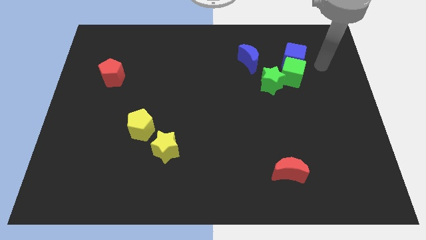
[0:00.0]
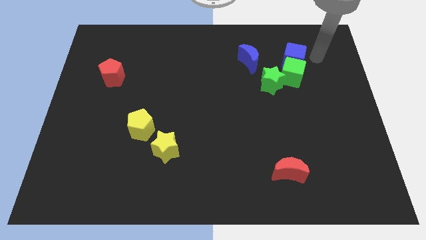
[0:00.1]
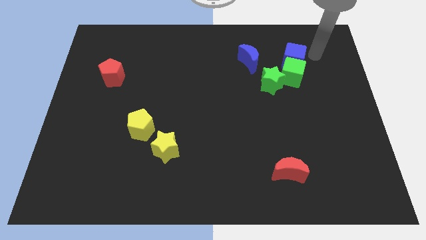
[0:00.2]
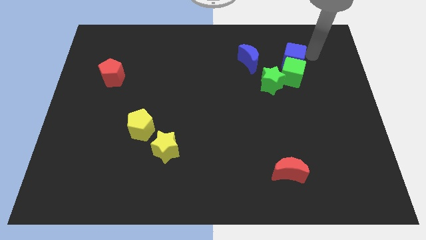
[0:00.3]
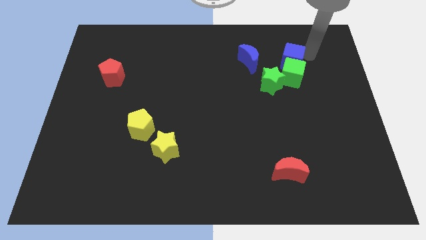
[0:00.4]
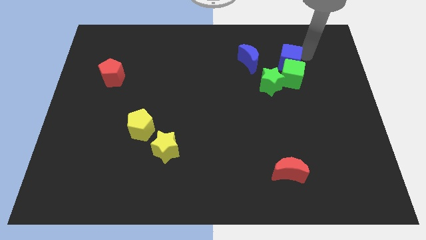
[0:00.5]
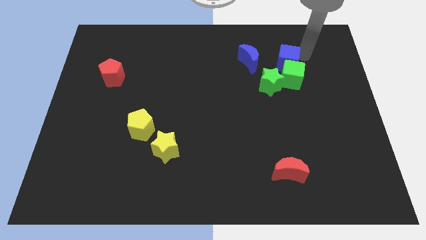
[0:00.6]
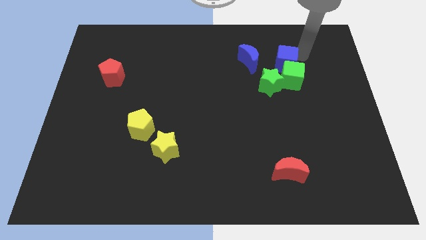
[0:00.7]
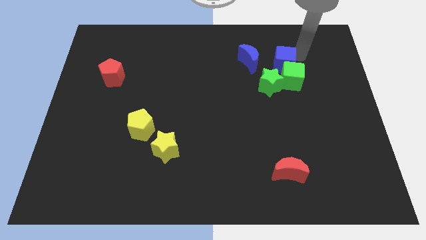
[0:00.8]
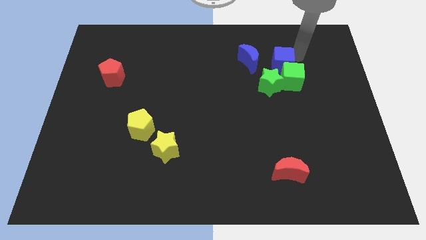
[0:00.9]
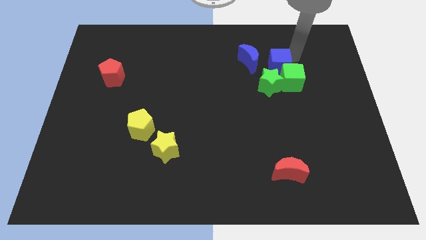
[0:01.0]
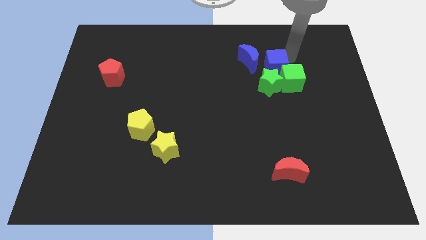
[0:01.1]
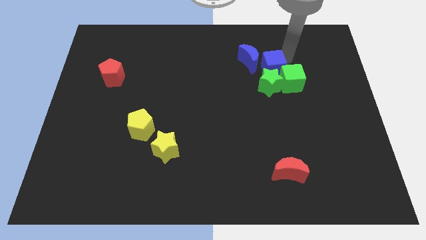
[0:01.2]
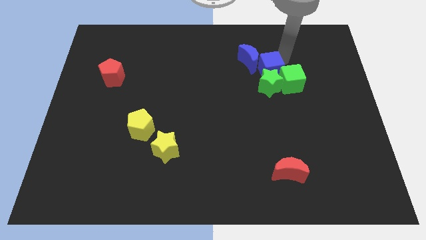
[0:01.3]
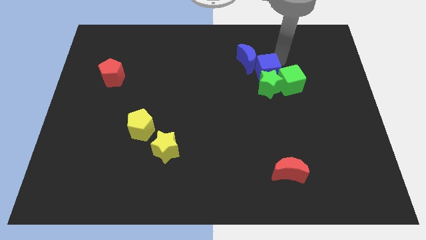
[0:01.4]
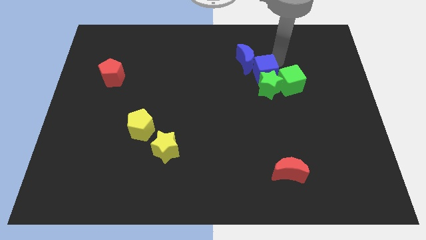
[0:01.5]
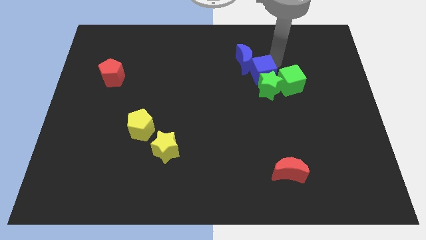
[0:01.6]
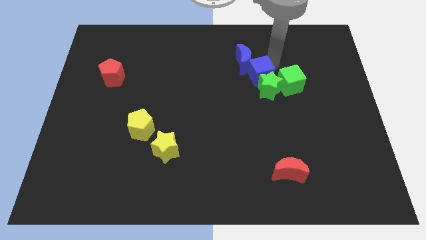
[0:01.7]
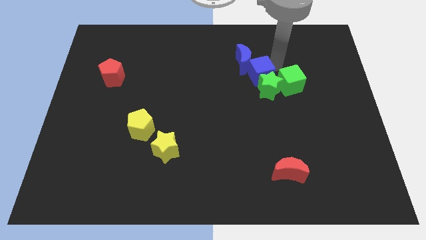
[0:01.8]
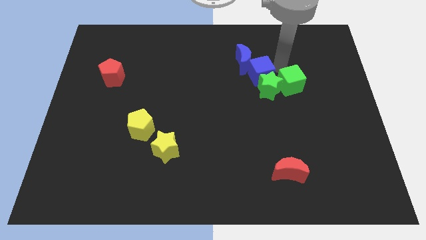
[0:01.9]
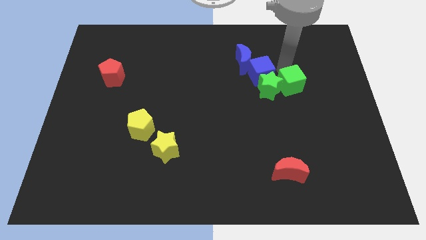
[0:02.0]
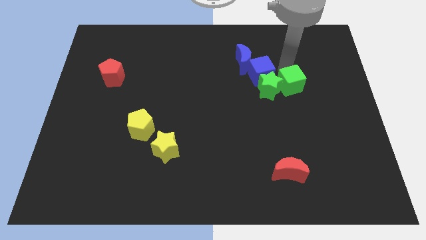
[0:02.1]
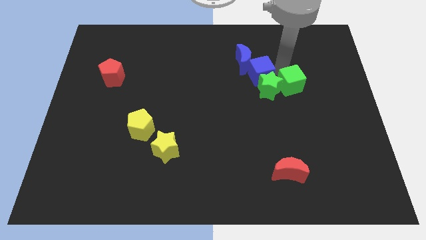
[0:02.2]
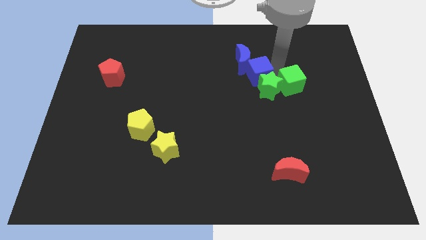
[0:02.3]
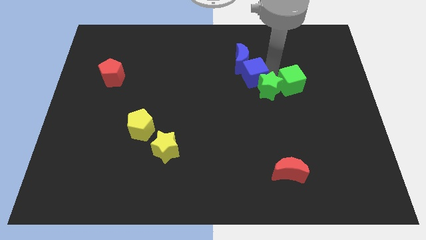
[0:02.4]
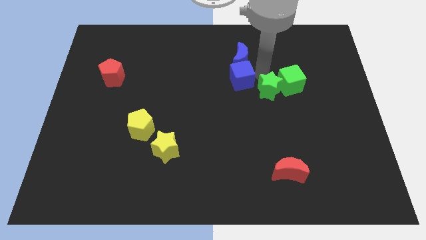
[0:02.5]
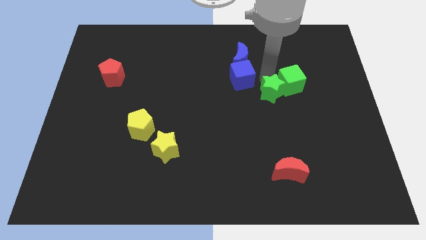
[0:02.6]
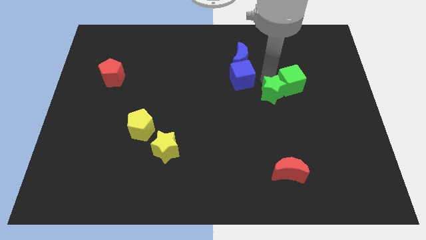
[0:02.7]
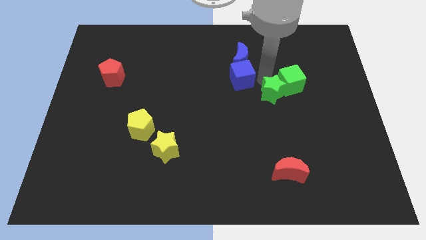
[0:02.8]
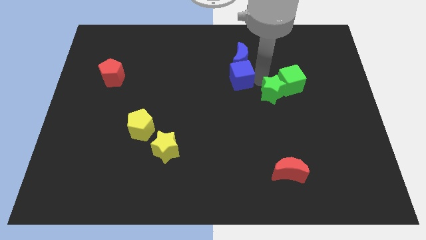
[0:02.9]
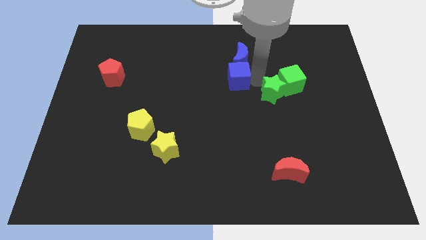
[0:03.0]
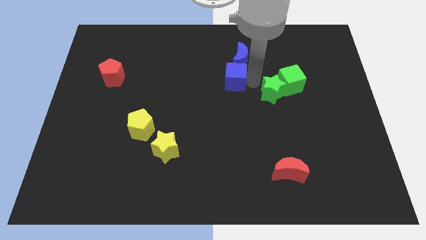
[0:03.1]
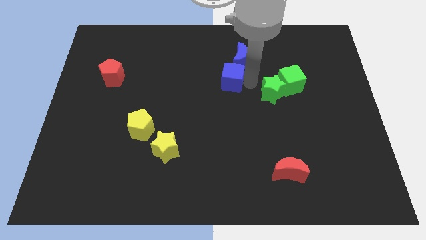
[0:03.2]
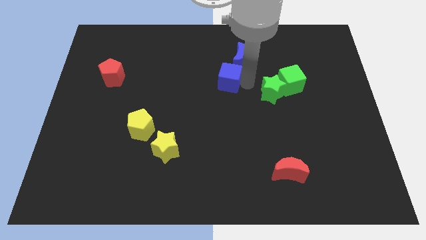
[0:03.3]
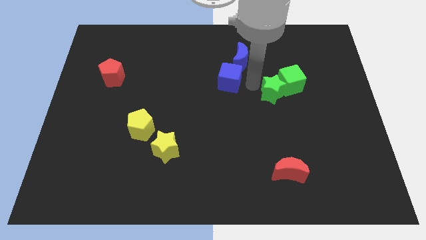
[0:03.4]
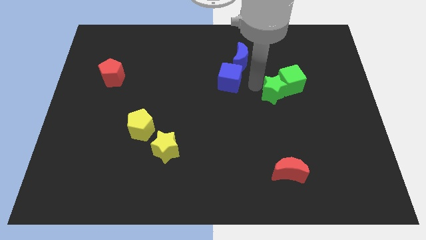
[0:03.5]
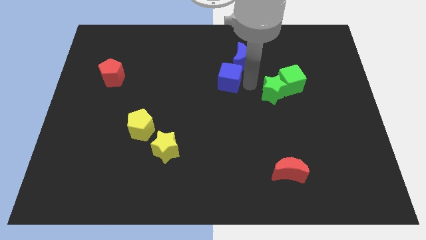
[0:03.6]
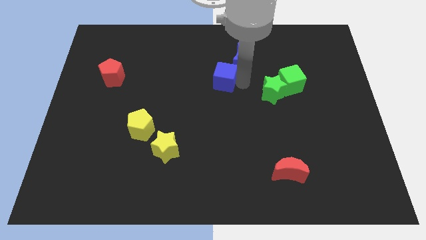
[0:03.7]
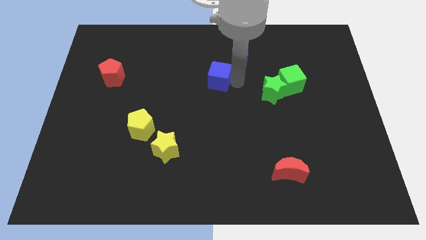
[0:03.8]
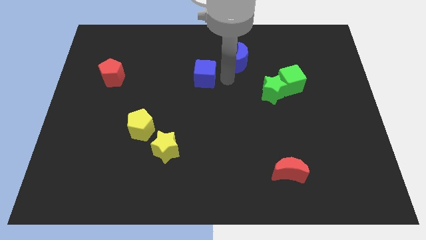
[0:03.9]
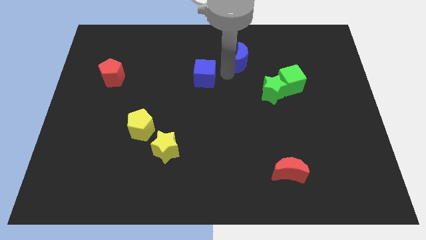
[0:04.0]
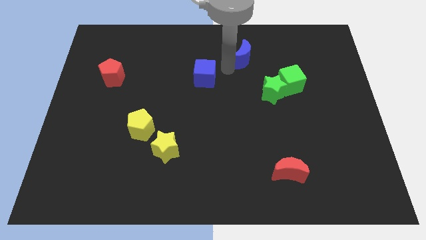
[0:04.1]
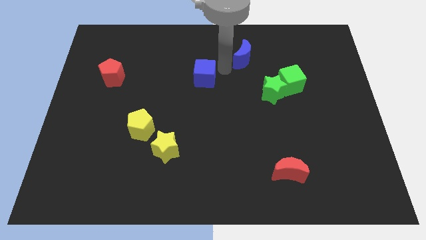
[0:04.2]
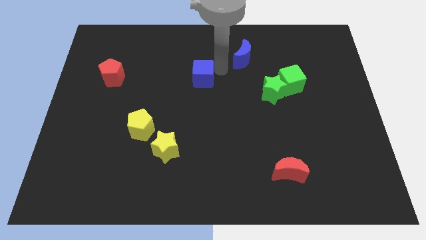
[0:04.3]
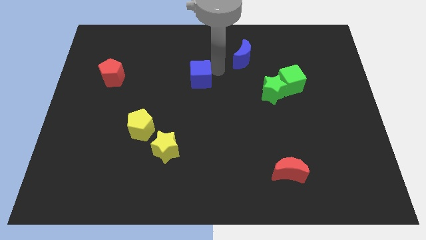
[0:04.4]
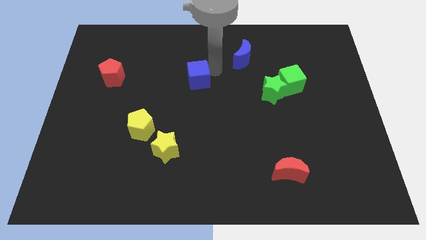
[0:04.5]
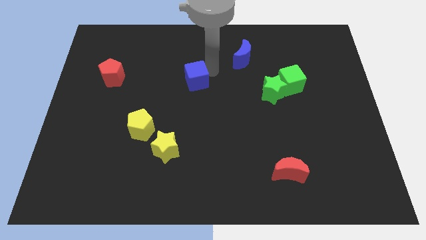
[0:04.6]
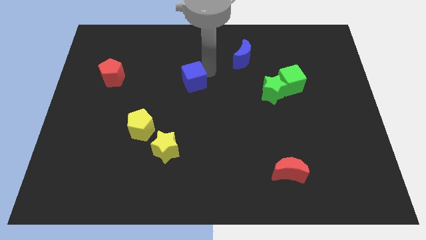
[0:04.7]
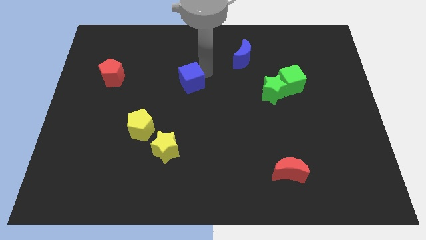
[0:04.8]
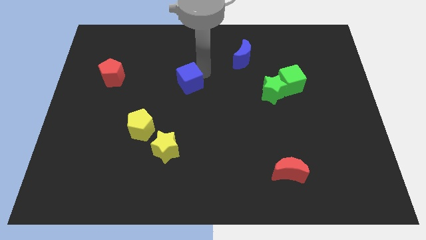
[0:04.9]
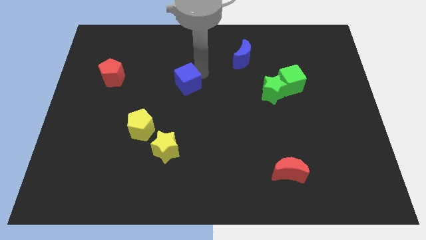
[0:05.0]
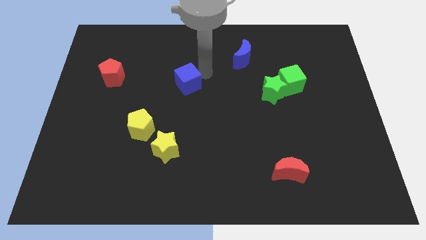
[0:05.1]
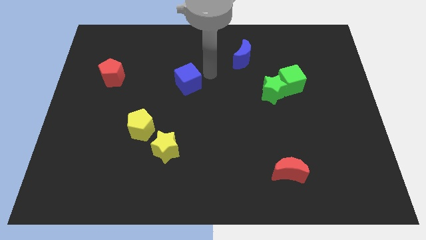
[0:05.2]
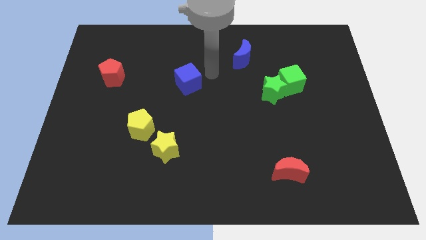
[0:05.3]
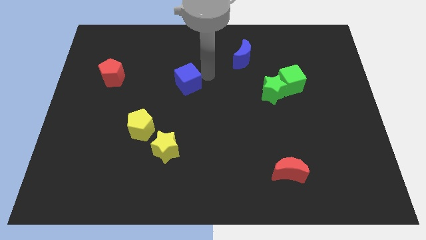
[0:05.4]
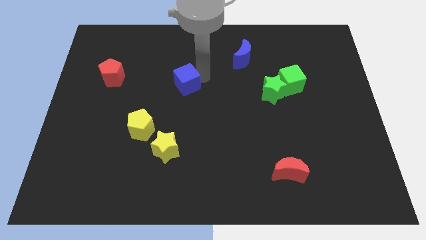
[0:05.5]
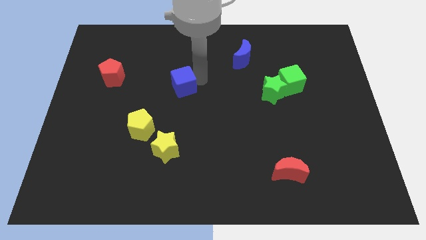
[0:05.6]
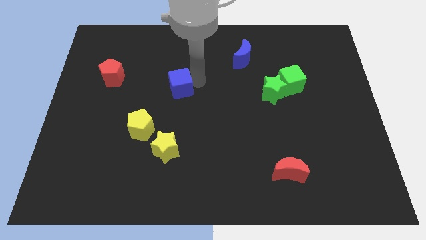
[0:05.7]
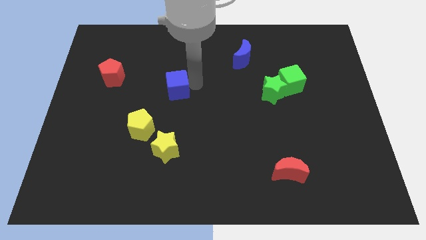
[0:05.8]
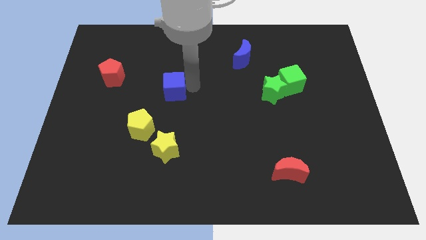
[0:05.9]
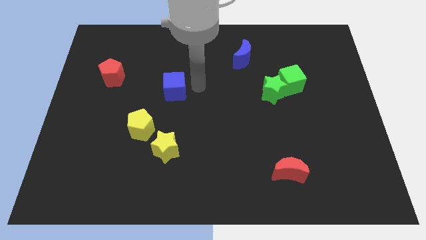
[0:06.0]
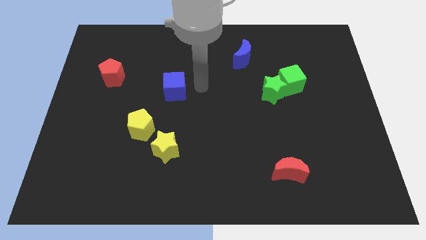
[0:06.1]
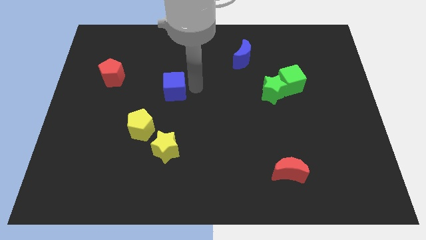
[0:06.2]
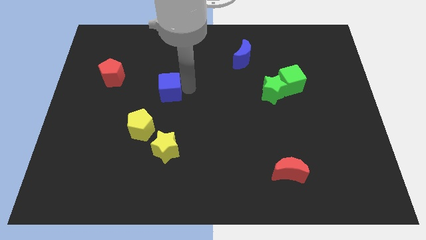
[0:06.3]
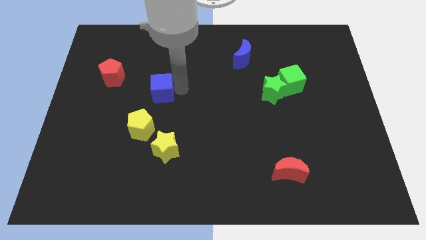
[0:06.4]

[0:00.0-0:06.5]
push the blue cube to the top side of the yellow pentagon
